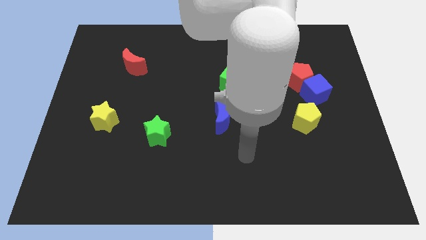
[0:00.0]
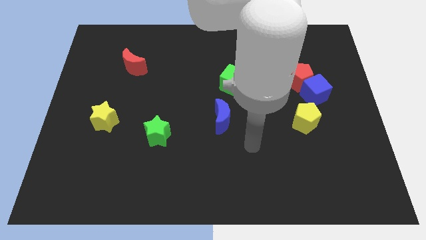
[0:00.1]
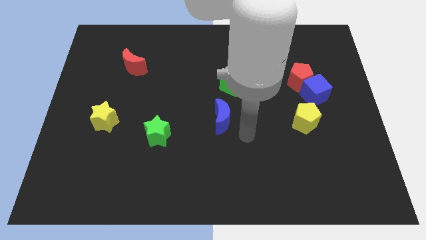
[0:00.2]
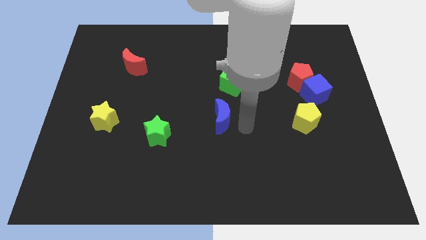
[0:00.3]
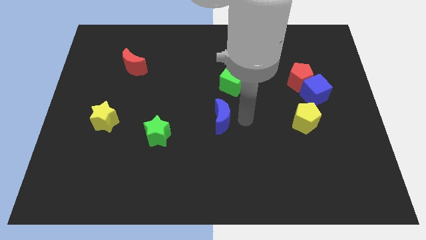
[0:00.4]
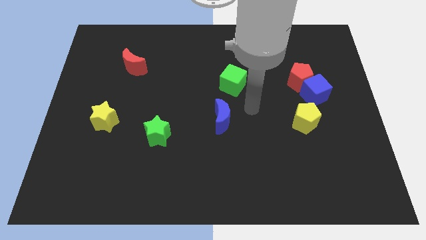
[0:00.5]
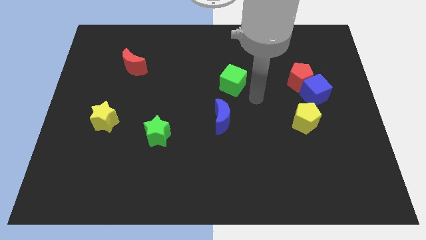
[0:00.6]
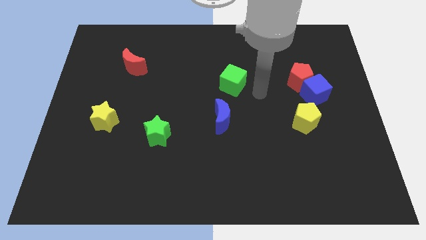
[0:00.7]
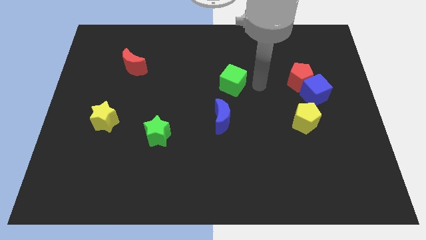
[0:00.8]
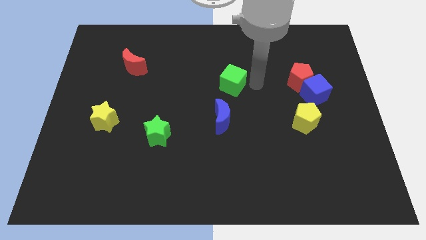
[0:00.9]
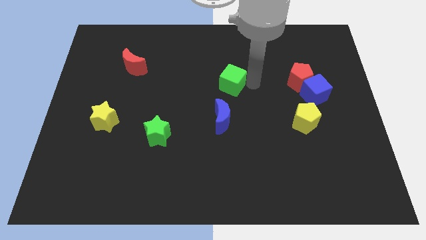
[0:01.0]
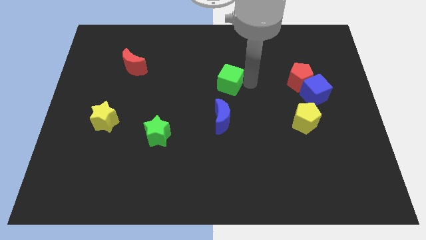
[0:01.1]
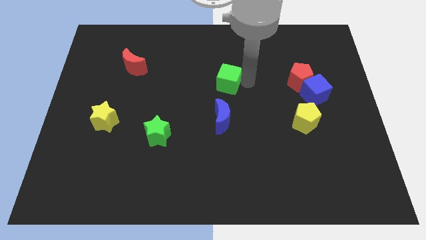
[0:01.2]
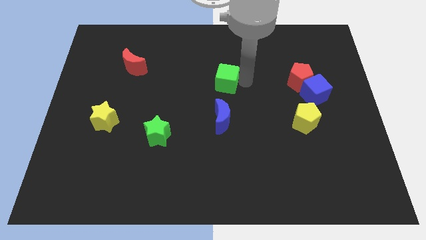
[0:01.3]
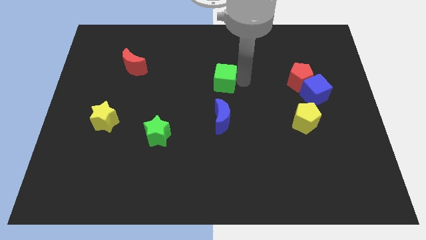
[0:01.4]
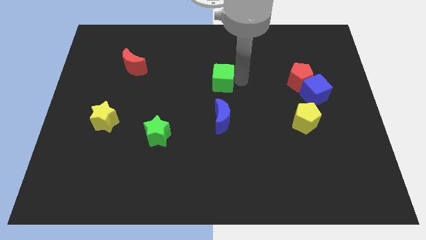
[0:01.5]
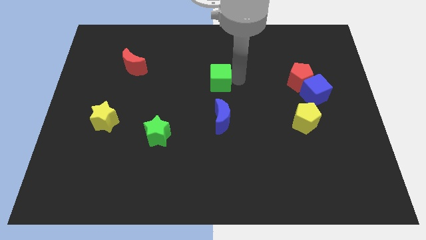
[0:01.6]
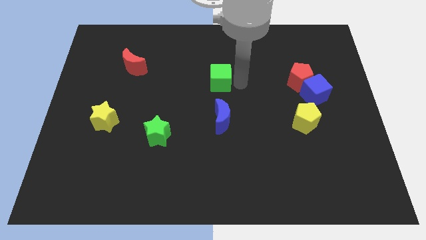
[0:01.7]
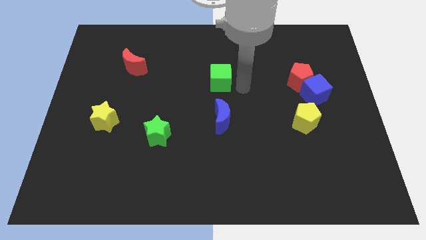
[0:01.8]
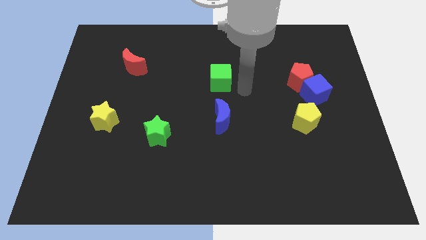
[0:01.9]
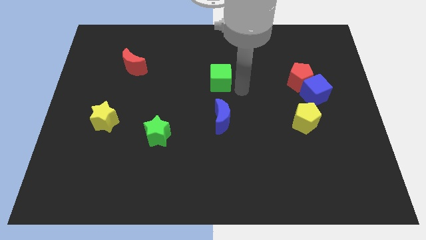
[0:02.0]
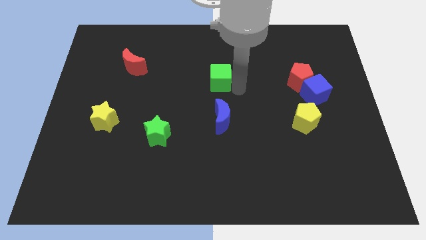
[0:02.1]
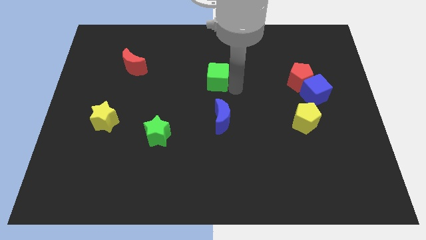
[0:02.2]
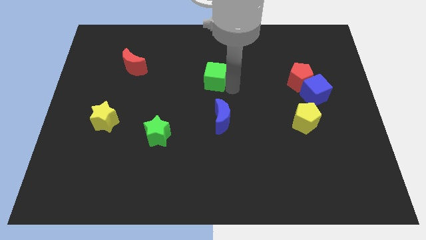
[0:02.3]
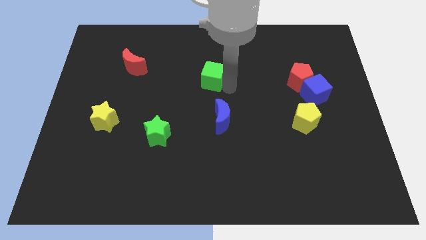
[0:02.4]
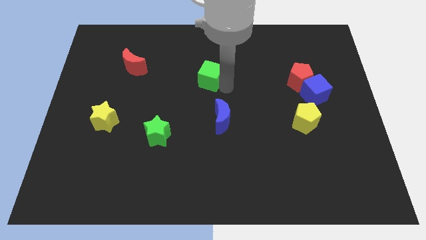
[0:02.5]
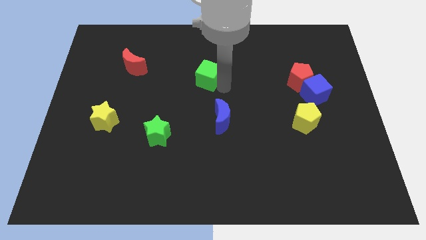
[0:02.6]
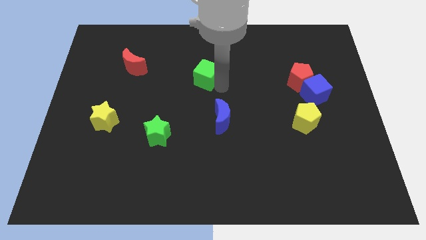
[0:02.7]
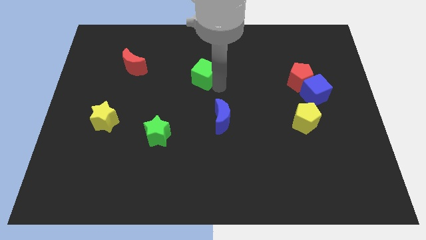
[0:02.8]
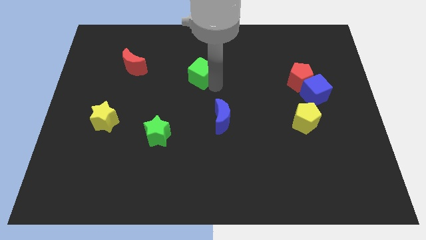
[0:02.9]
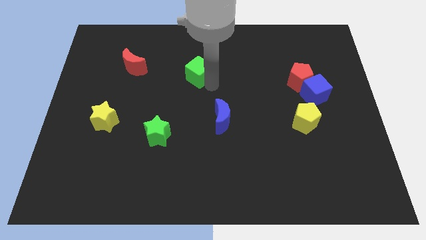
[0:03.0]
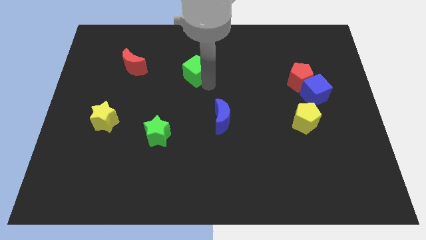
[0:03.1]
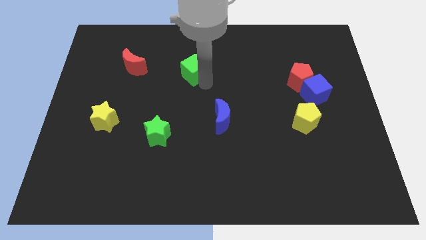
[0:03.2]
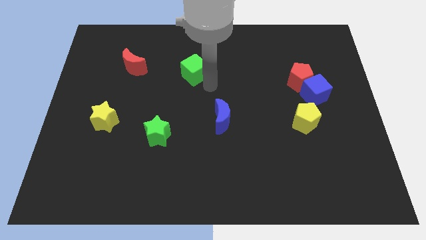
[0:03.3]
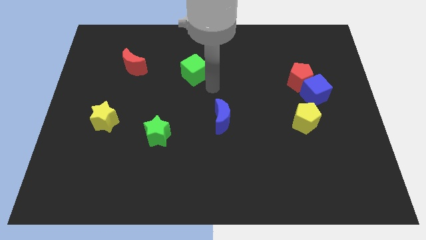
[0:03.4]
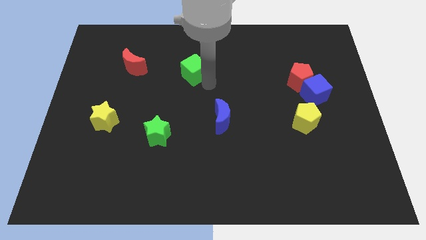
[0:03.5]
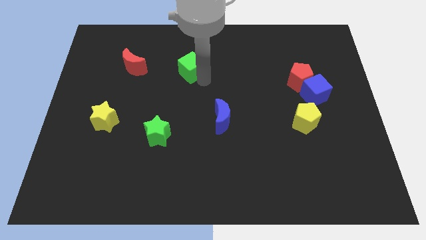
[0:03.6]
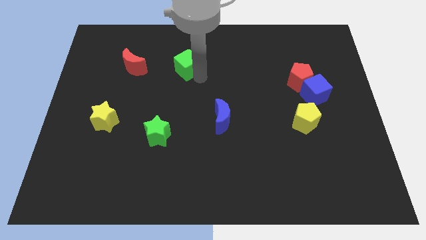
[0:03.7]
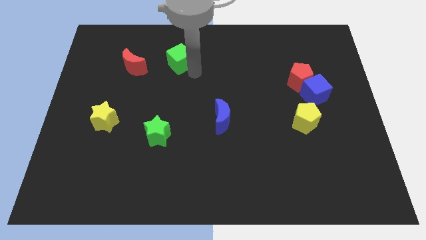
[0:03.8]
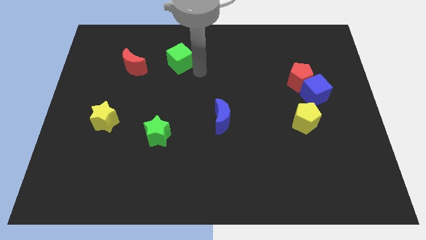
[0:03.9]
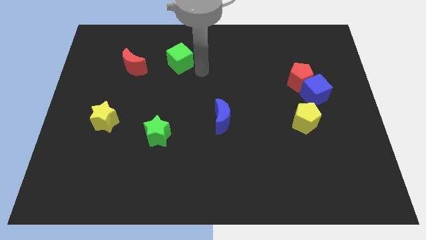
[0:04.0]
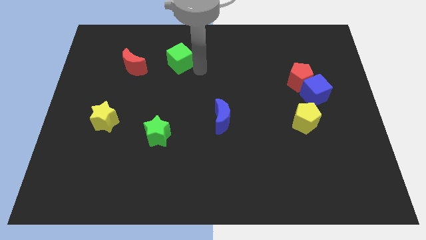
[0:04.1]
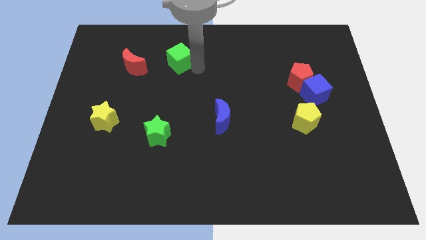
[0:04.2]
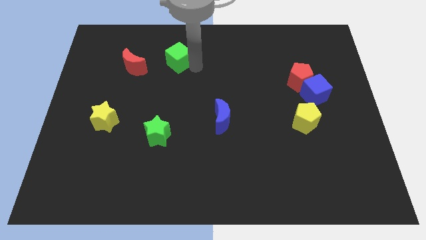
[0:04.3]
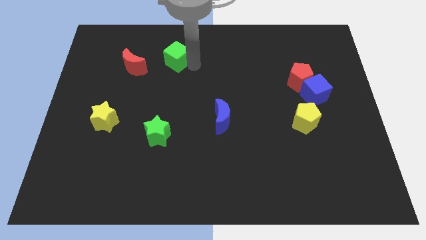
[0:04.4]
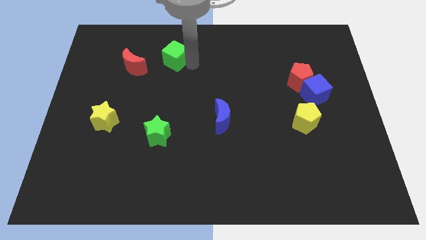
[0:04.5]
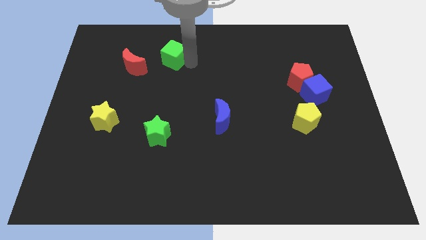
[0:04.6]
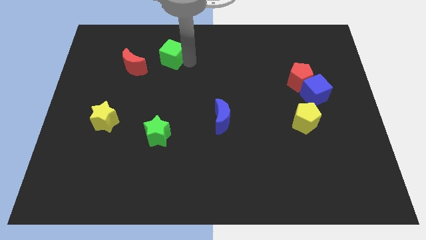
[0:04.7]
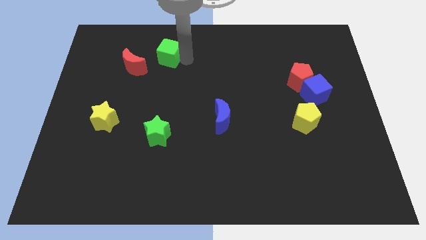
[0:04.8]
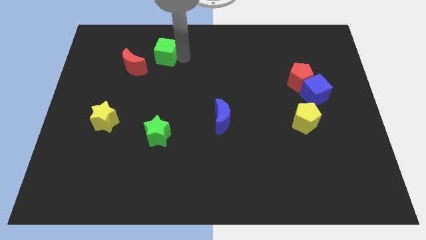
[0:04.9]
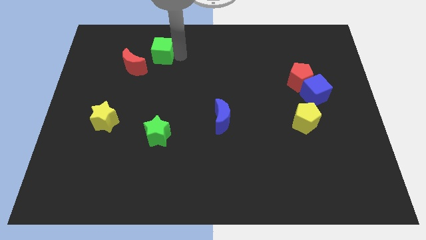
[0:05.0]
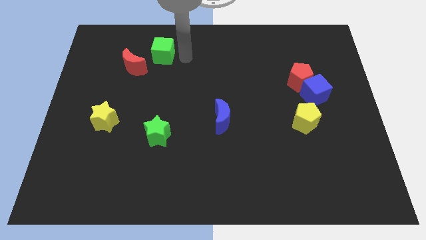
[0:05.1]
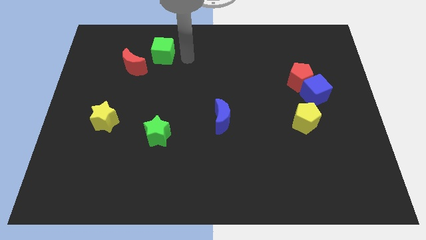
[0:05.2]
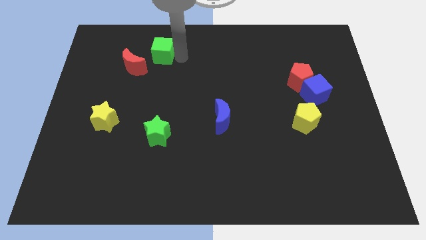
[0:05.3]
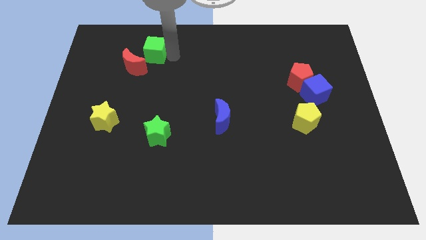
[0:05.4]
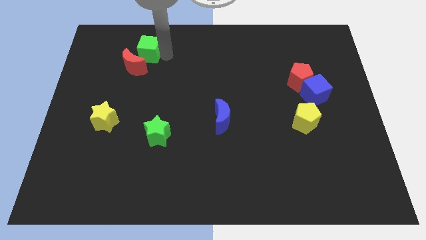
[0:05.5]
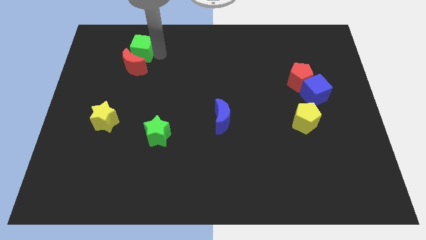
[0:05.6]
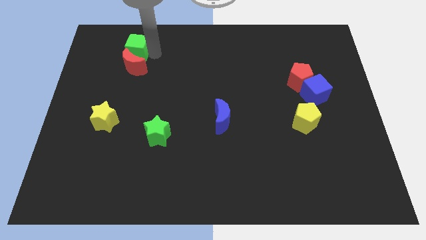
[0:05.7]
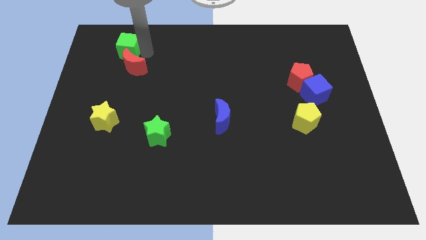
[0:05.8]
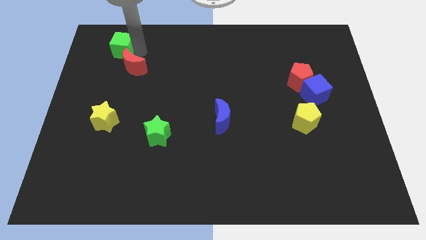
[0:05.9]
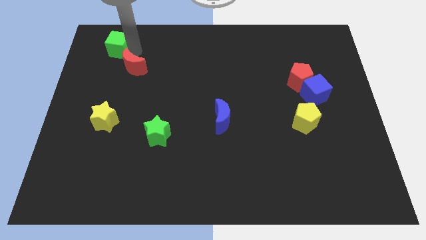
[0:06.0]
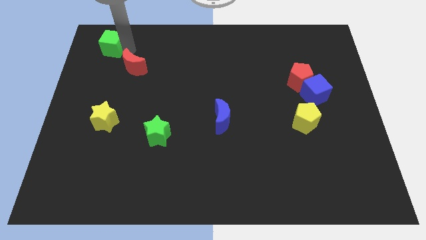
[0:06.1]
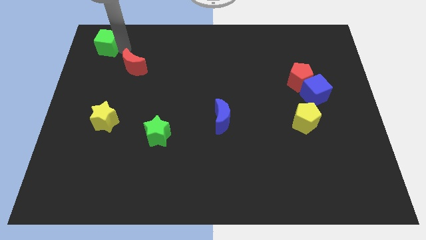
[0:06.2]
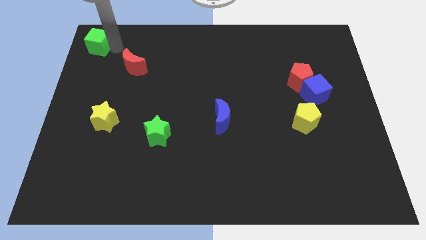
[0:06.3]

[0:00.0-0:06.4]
push the green cube to the top left

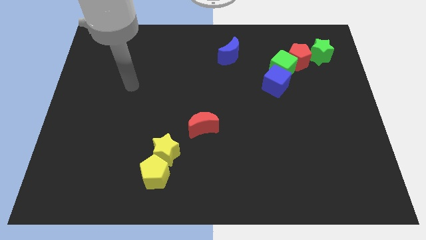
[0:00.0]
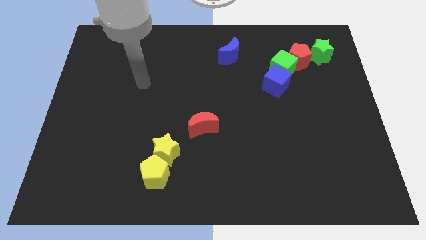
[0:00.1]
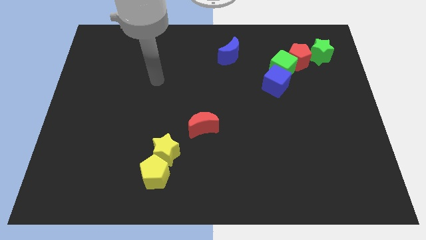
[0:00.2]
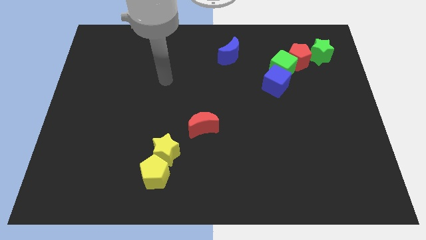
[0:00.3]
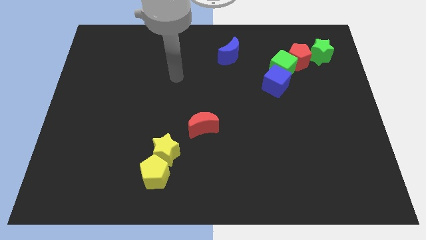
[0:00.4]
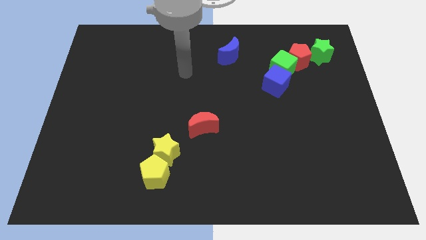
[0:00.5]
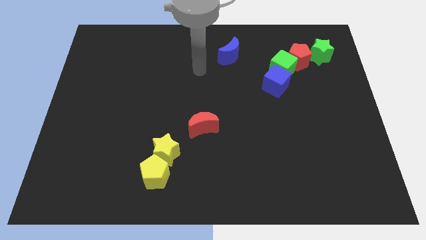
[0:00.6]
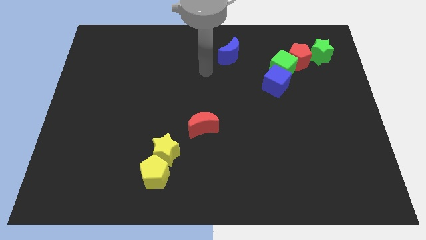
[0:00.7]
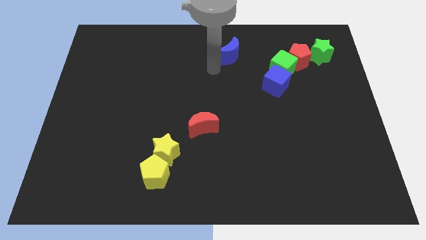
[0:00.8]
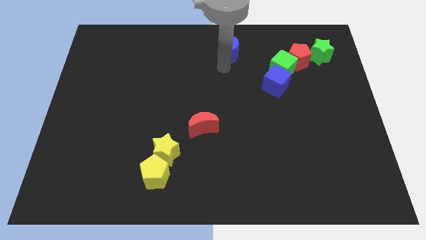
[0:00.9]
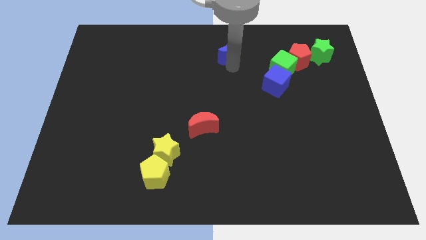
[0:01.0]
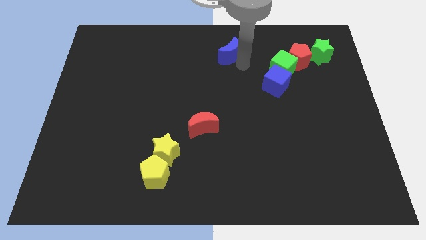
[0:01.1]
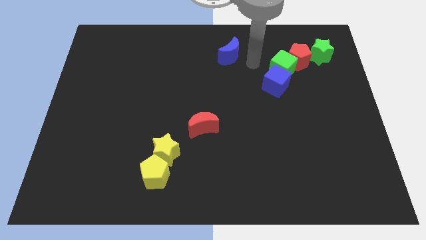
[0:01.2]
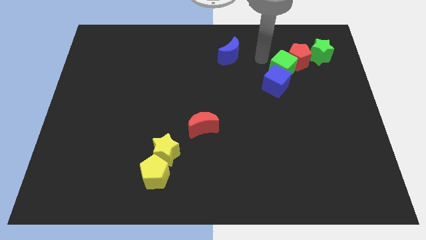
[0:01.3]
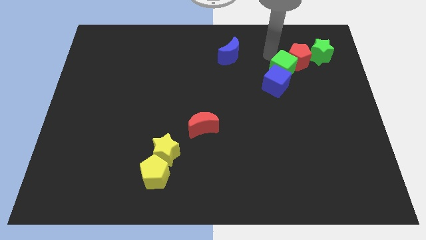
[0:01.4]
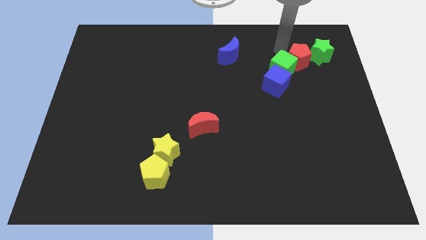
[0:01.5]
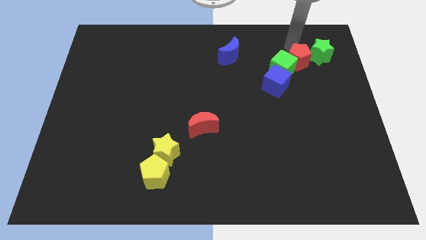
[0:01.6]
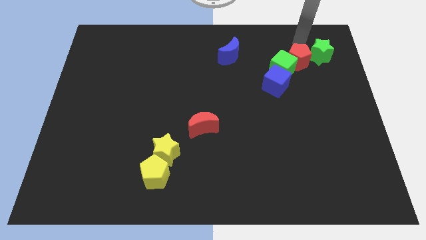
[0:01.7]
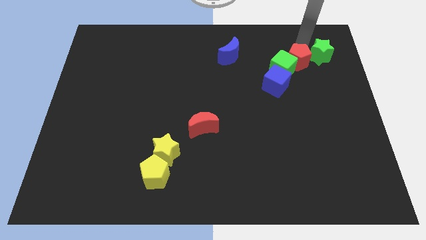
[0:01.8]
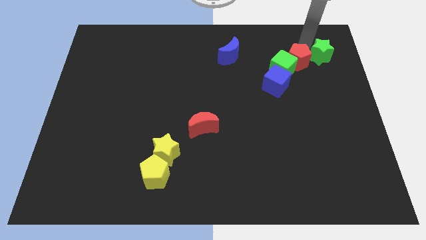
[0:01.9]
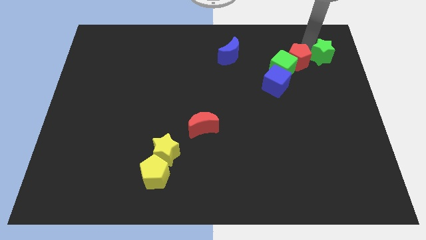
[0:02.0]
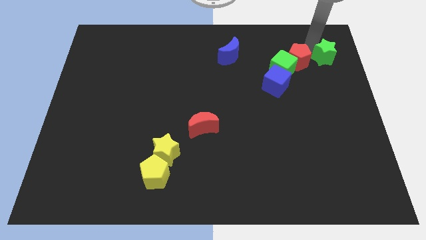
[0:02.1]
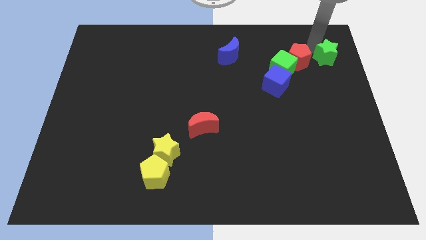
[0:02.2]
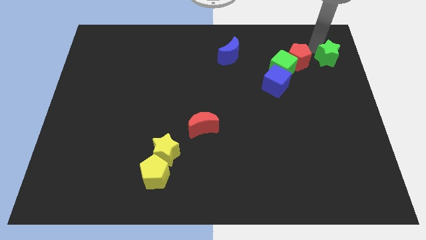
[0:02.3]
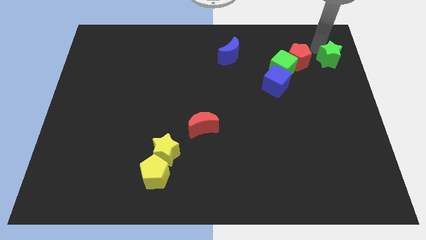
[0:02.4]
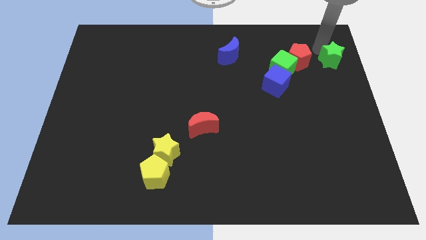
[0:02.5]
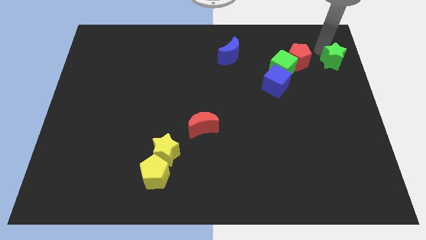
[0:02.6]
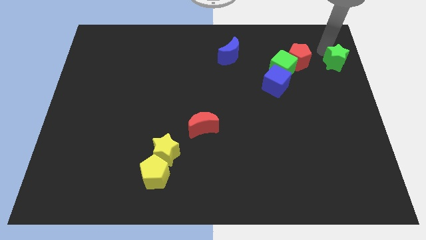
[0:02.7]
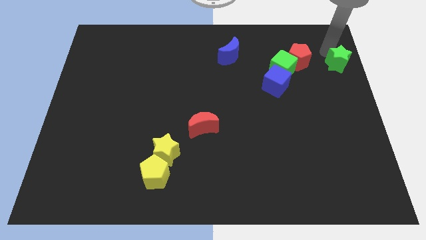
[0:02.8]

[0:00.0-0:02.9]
move the green star to the center right
